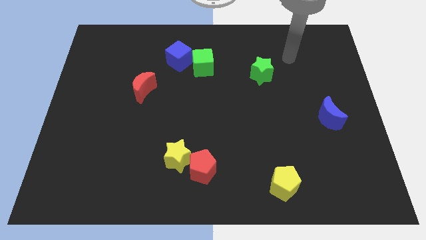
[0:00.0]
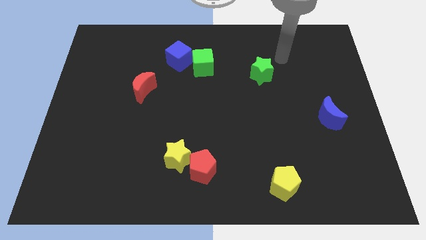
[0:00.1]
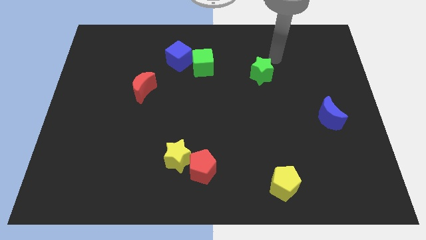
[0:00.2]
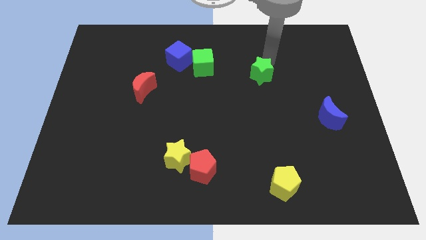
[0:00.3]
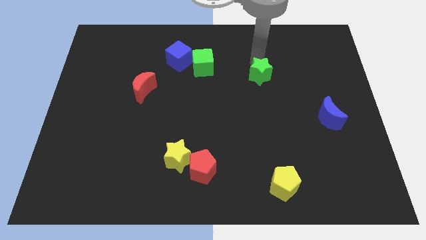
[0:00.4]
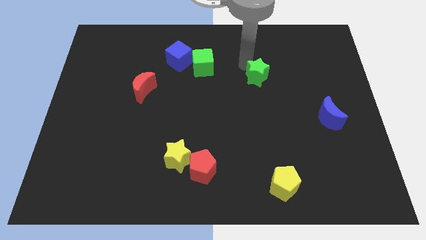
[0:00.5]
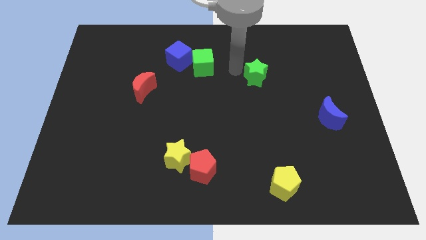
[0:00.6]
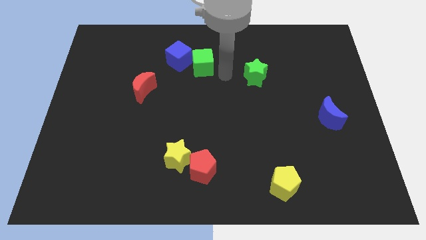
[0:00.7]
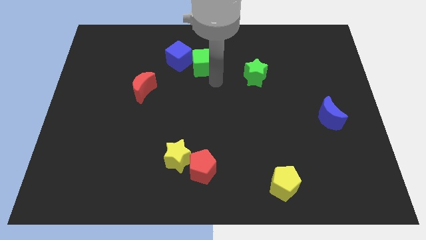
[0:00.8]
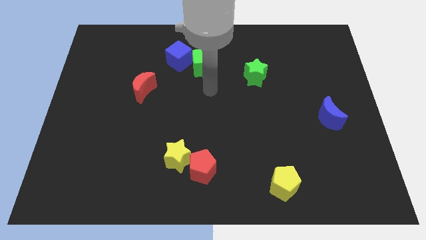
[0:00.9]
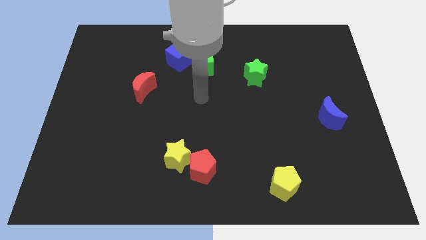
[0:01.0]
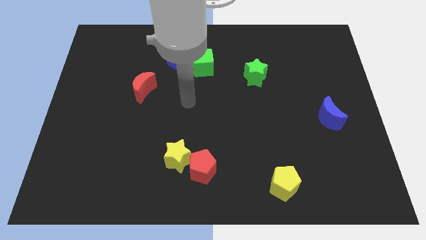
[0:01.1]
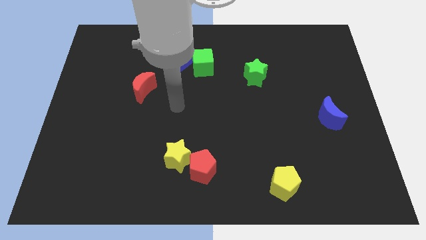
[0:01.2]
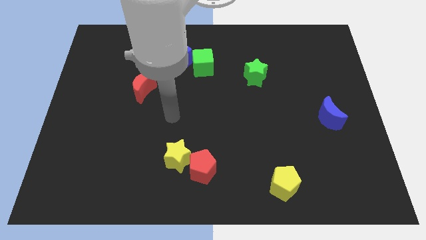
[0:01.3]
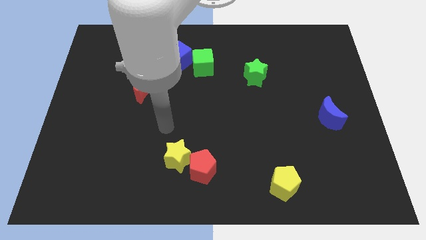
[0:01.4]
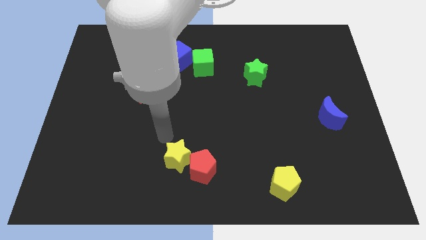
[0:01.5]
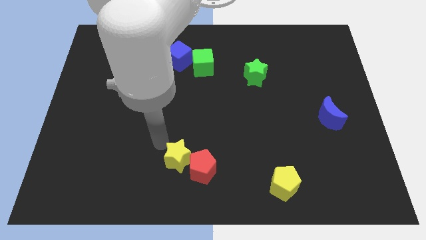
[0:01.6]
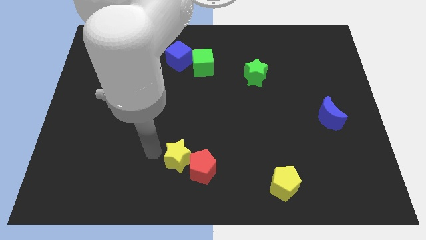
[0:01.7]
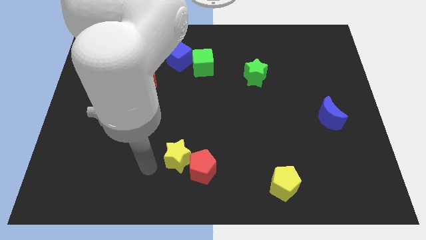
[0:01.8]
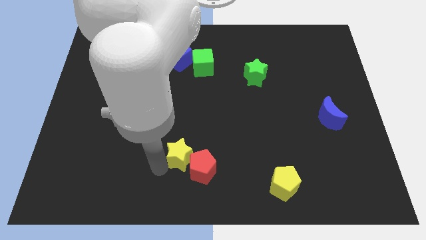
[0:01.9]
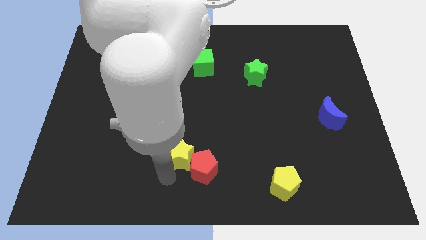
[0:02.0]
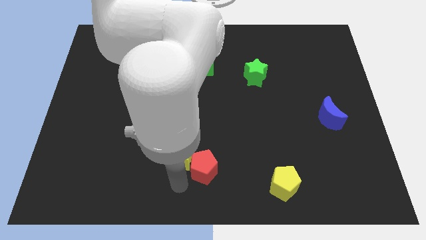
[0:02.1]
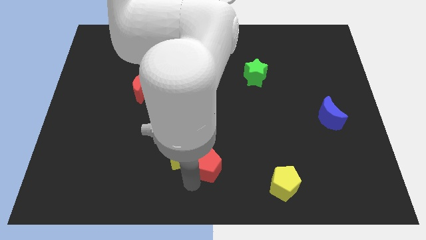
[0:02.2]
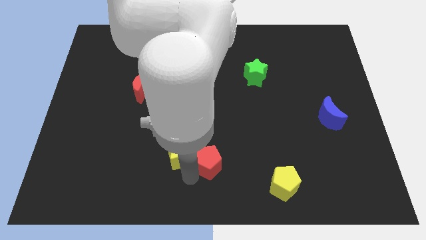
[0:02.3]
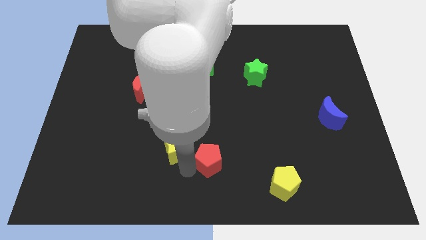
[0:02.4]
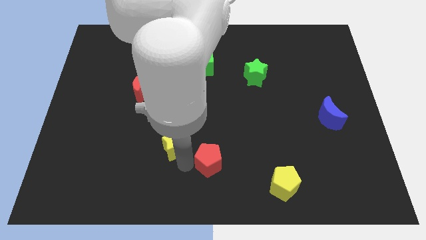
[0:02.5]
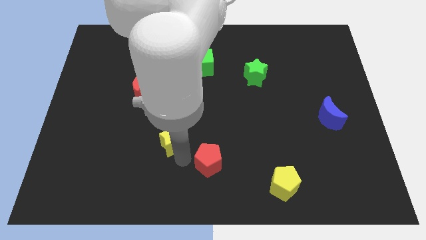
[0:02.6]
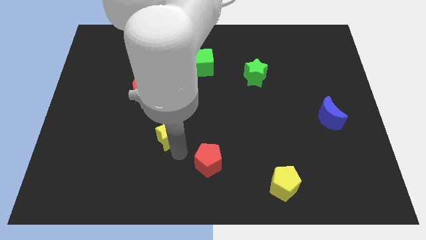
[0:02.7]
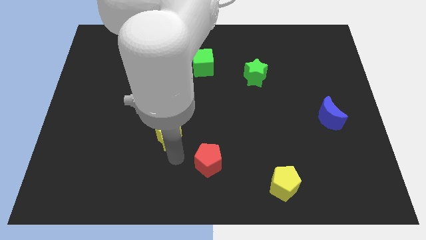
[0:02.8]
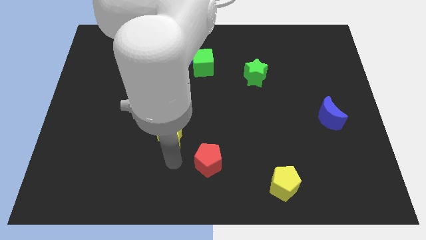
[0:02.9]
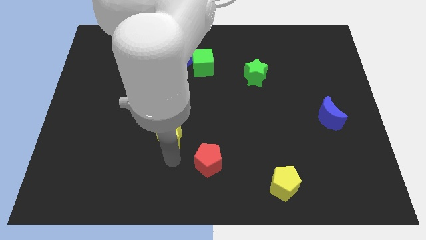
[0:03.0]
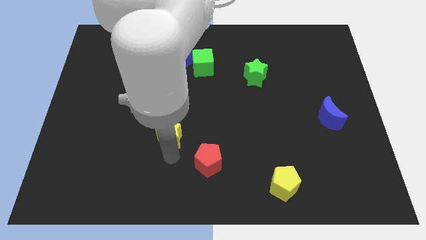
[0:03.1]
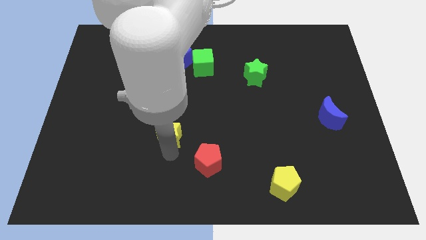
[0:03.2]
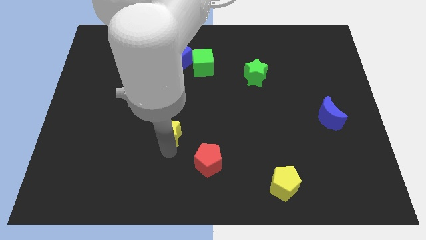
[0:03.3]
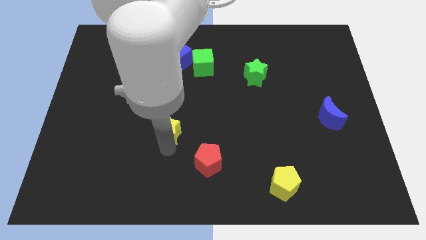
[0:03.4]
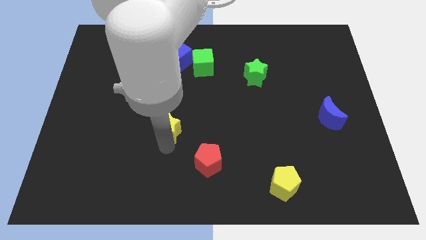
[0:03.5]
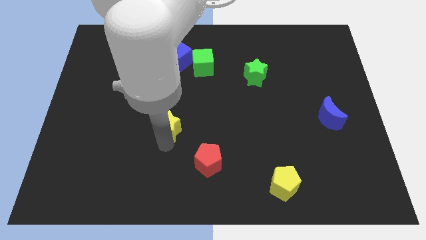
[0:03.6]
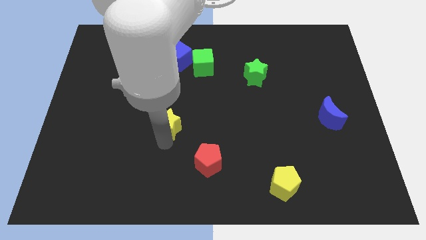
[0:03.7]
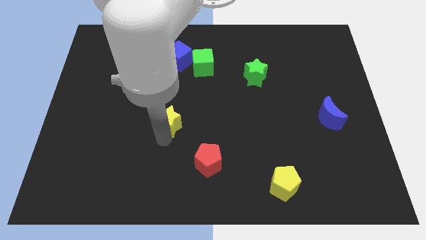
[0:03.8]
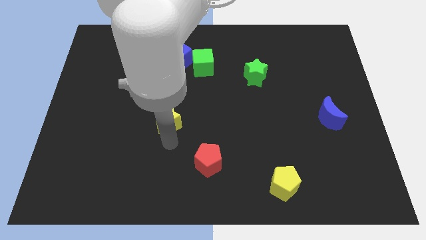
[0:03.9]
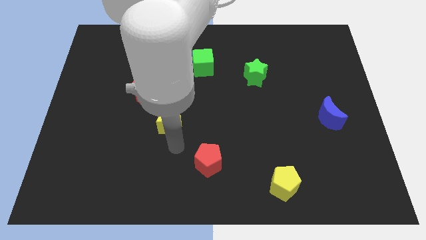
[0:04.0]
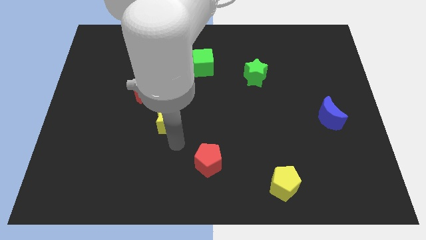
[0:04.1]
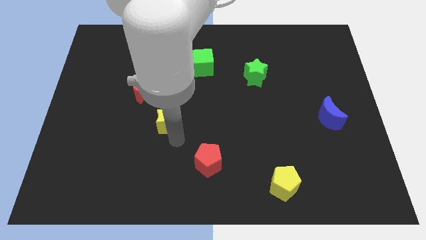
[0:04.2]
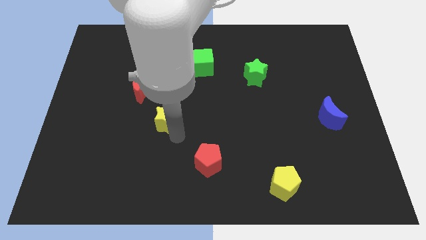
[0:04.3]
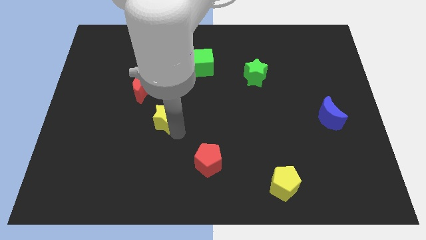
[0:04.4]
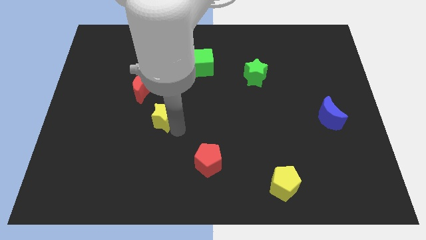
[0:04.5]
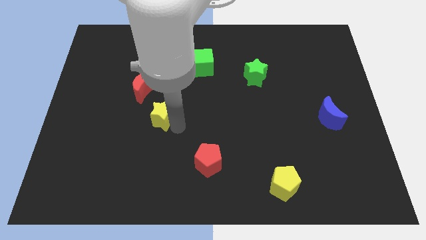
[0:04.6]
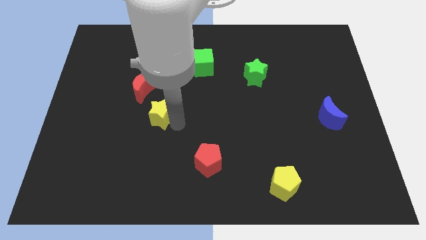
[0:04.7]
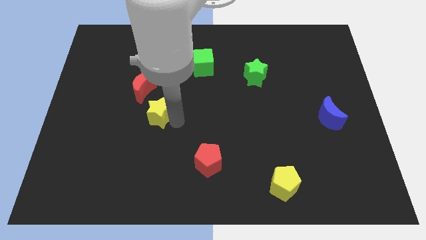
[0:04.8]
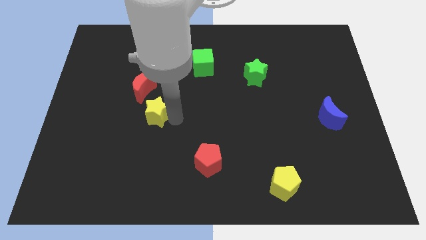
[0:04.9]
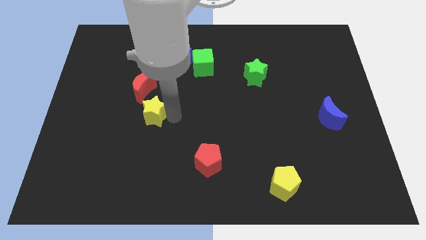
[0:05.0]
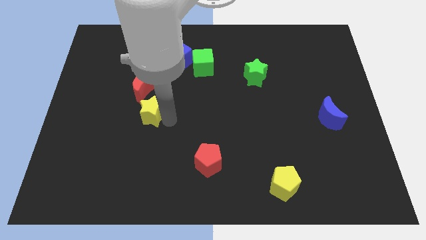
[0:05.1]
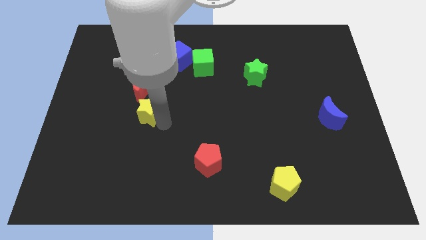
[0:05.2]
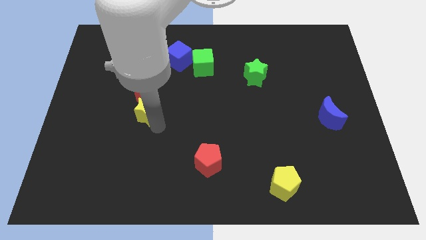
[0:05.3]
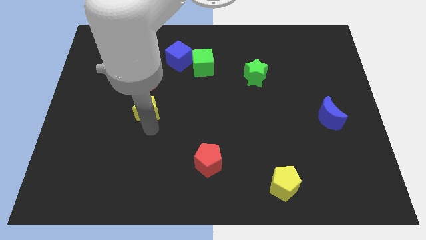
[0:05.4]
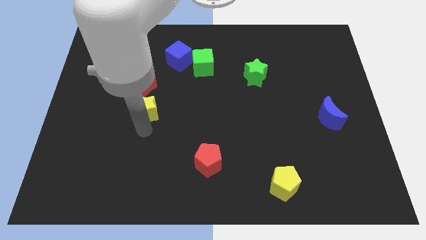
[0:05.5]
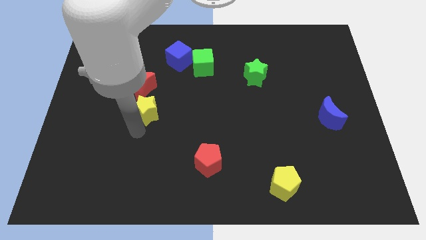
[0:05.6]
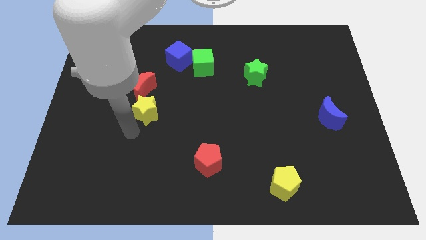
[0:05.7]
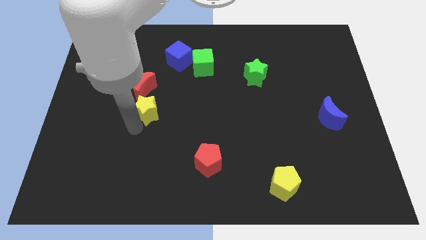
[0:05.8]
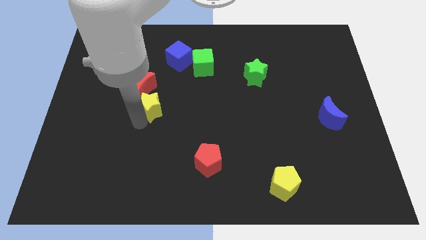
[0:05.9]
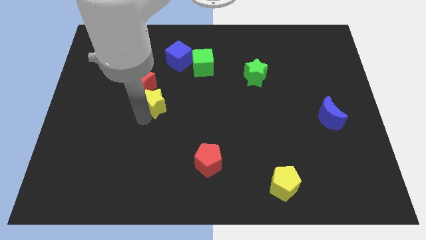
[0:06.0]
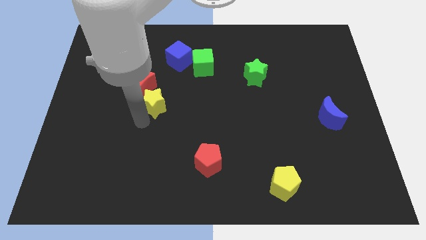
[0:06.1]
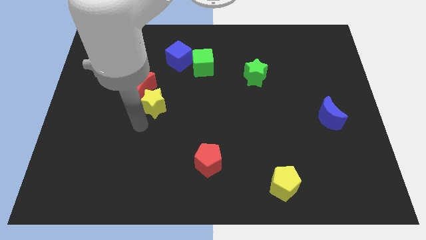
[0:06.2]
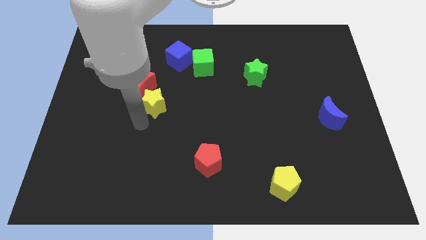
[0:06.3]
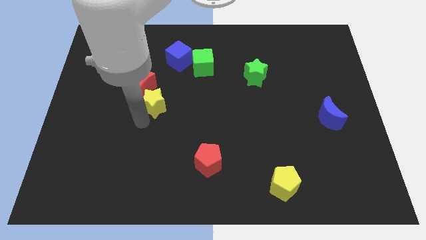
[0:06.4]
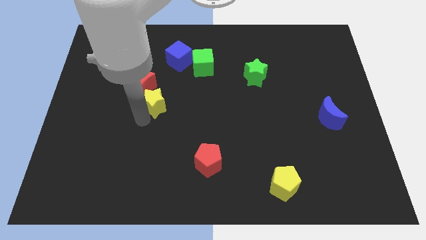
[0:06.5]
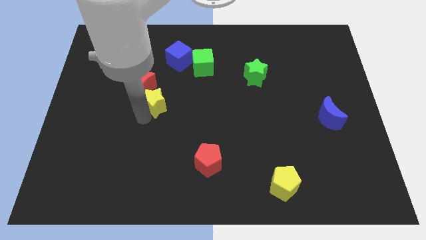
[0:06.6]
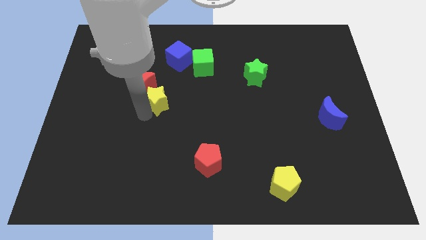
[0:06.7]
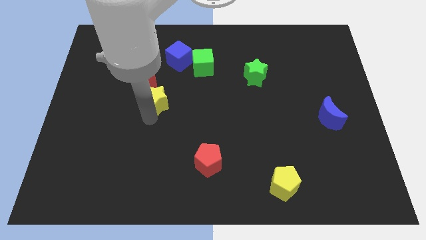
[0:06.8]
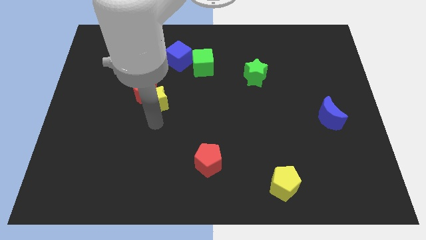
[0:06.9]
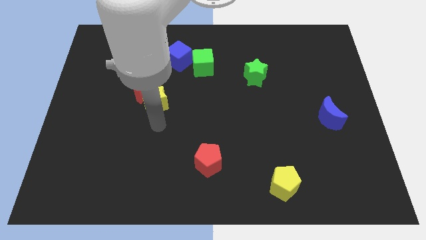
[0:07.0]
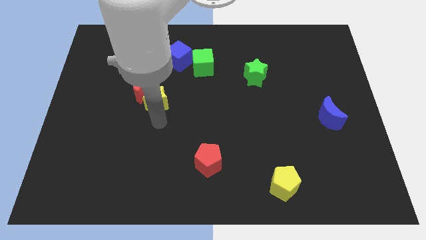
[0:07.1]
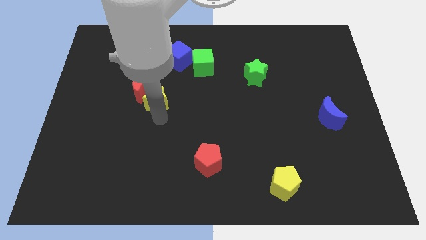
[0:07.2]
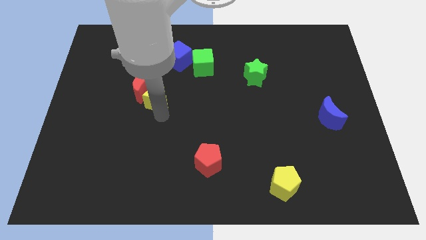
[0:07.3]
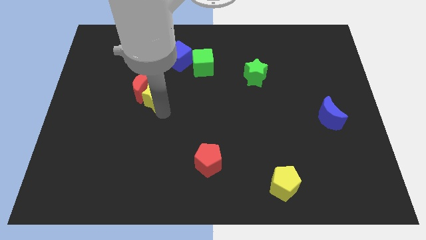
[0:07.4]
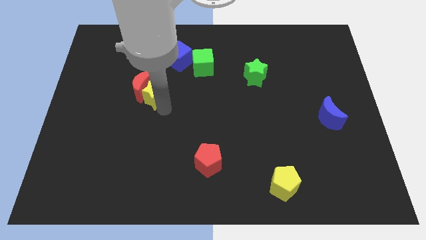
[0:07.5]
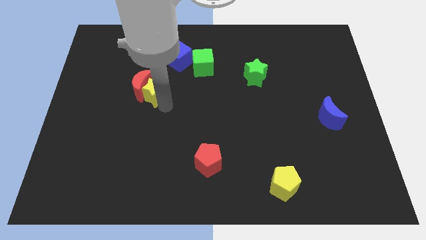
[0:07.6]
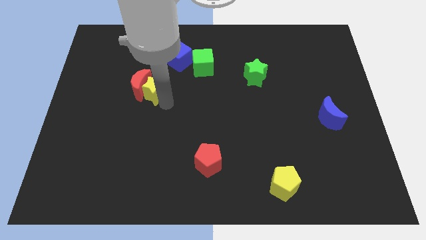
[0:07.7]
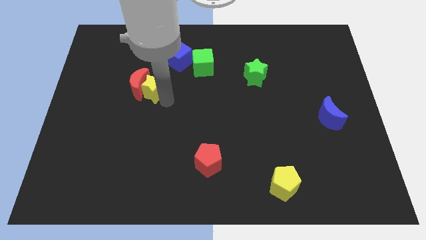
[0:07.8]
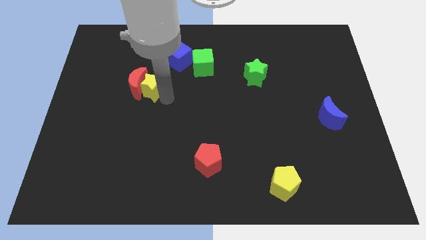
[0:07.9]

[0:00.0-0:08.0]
push the yellow star diagonally down and to the left of the blue cube
